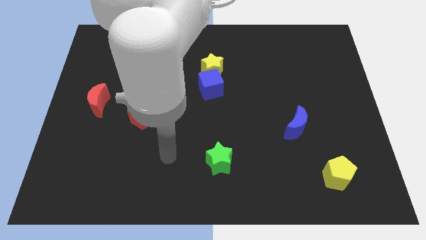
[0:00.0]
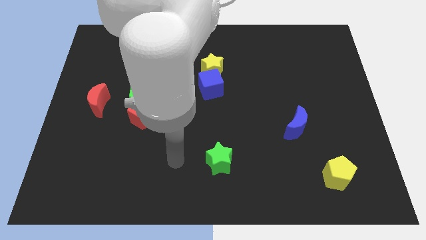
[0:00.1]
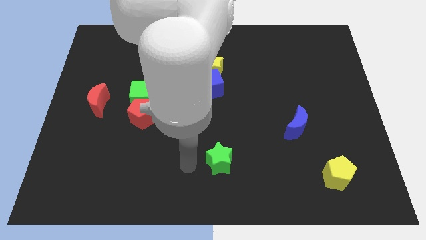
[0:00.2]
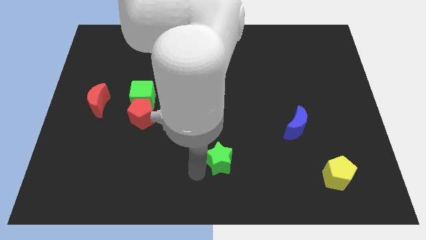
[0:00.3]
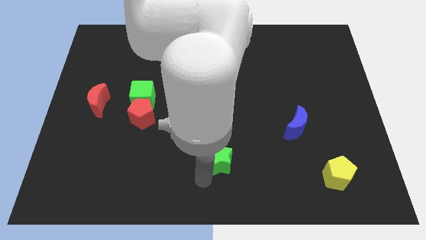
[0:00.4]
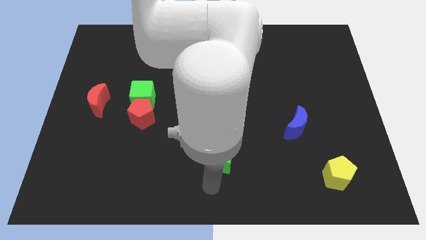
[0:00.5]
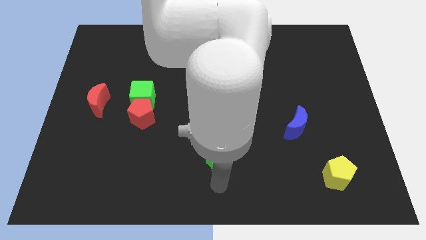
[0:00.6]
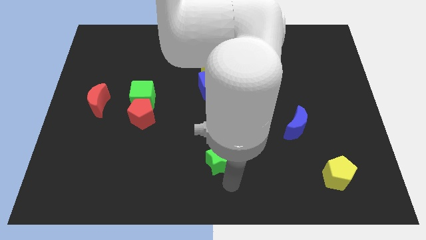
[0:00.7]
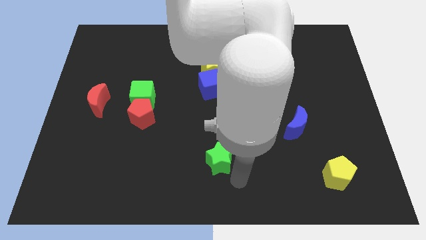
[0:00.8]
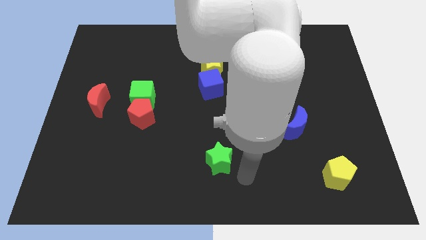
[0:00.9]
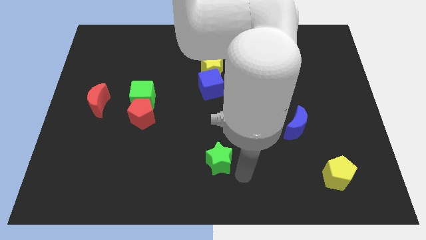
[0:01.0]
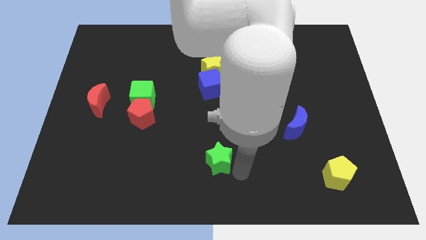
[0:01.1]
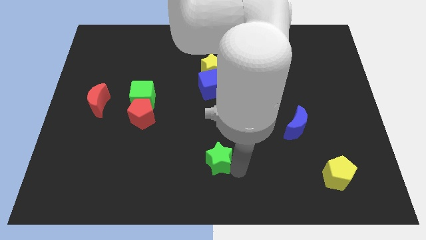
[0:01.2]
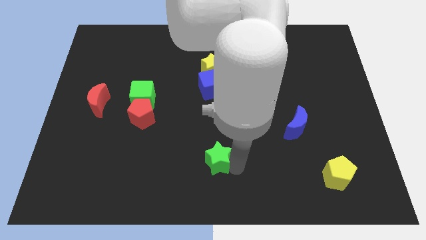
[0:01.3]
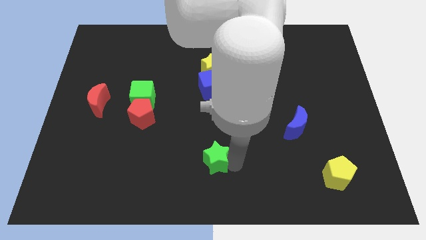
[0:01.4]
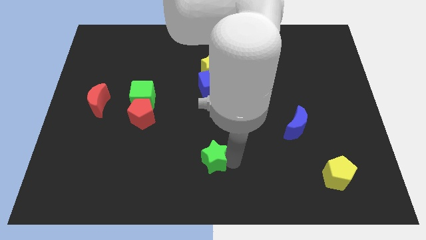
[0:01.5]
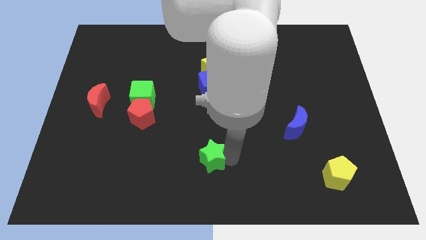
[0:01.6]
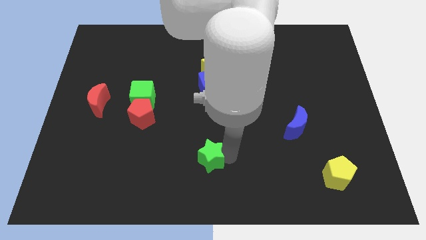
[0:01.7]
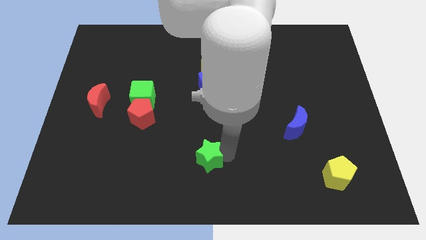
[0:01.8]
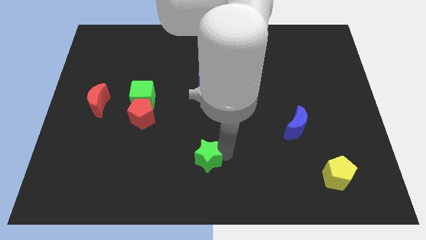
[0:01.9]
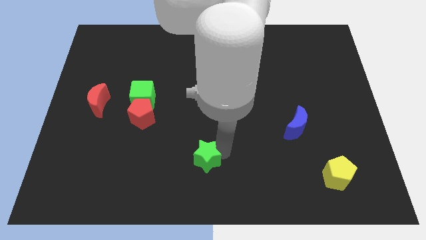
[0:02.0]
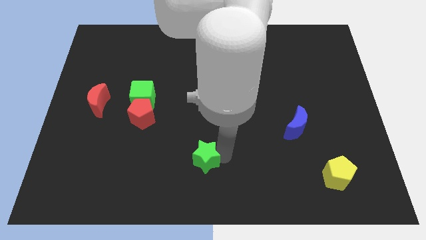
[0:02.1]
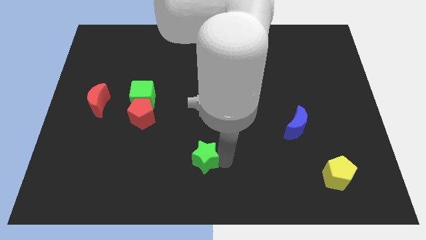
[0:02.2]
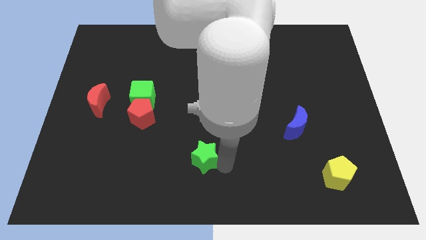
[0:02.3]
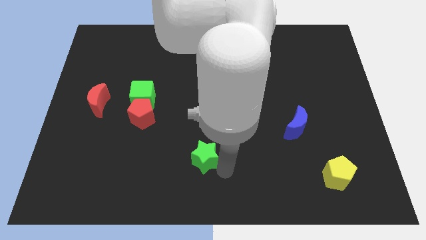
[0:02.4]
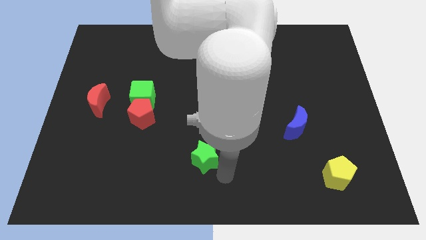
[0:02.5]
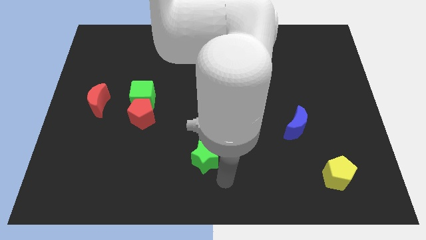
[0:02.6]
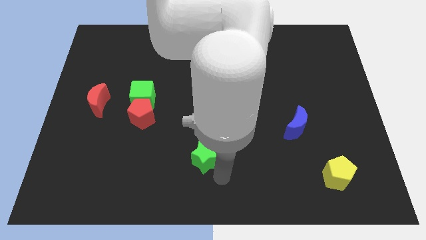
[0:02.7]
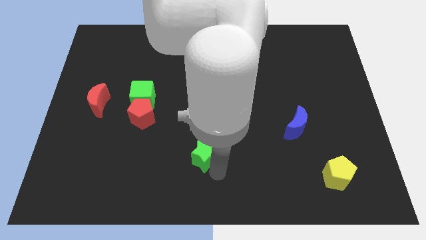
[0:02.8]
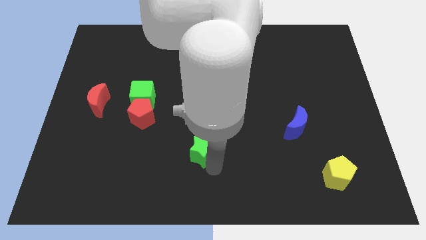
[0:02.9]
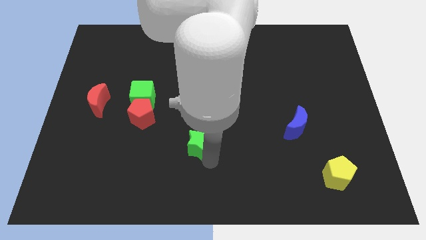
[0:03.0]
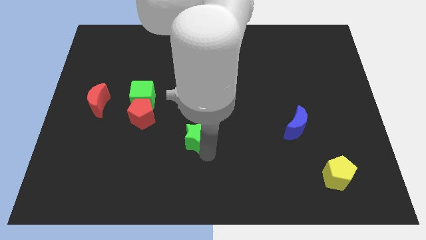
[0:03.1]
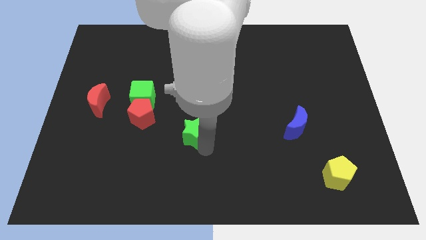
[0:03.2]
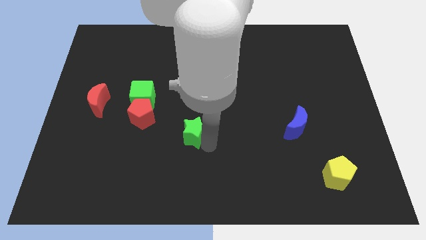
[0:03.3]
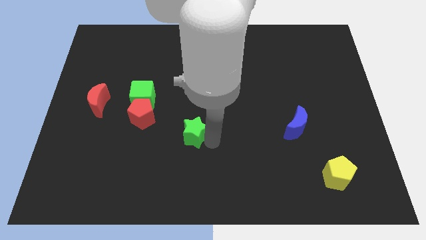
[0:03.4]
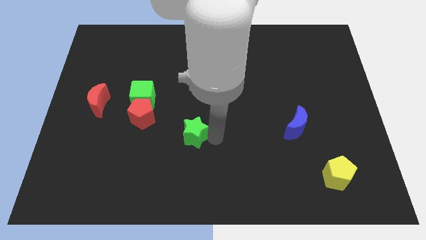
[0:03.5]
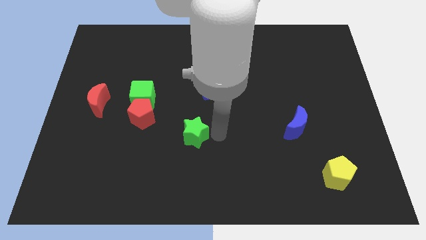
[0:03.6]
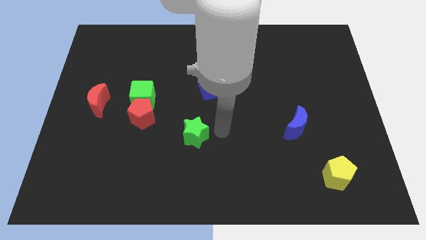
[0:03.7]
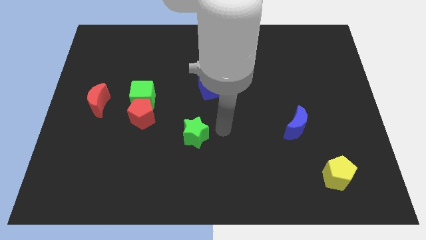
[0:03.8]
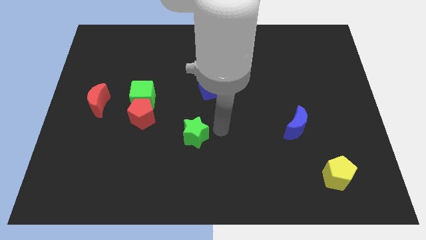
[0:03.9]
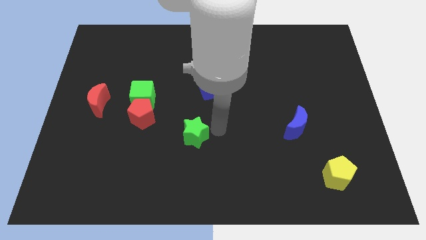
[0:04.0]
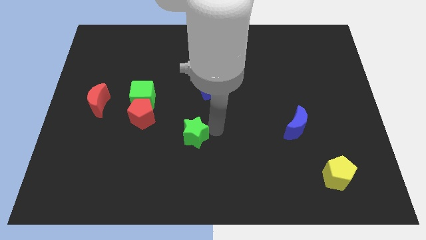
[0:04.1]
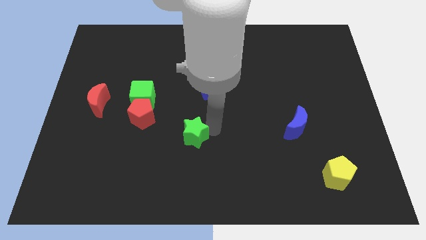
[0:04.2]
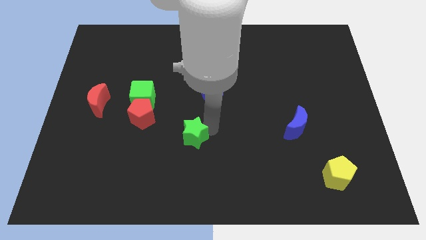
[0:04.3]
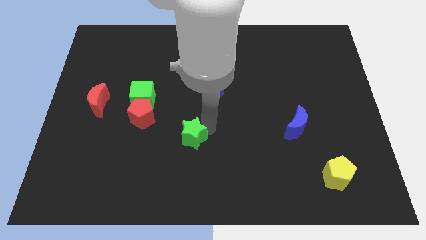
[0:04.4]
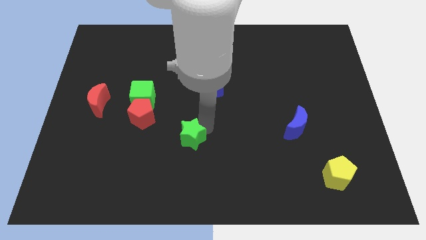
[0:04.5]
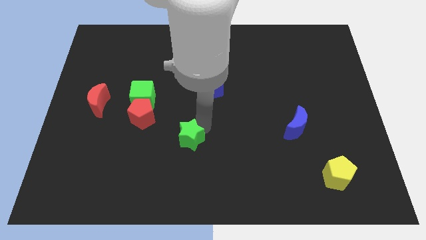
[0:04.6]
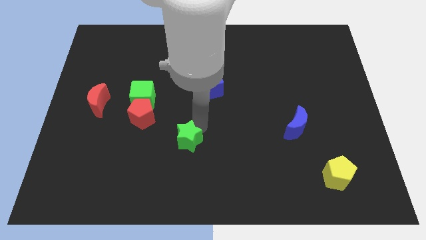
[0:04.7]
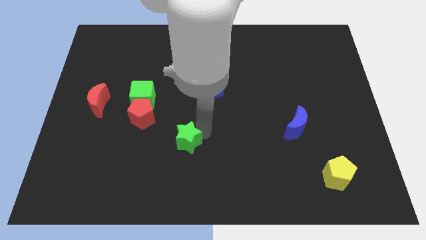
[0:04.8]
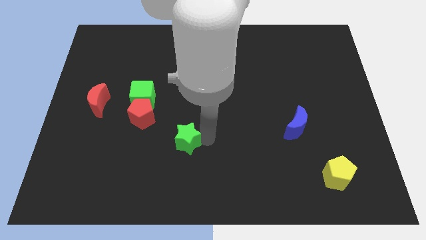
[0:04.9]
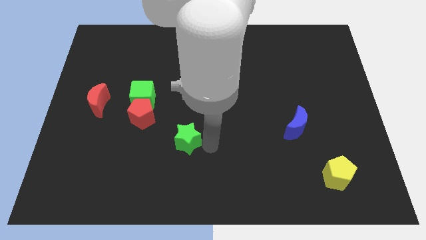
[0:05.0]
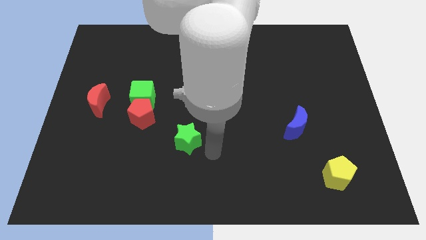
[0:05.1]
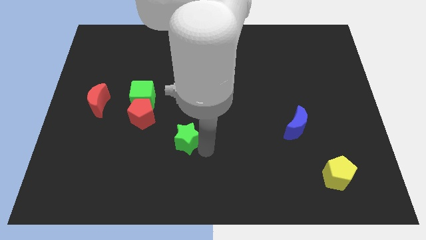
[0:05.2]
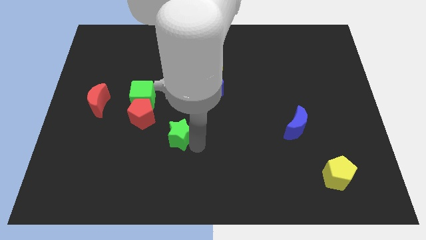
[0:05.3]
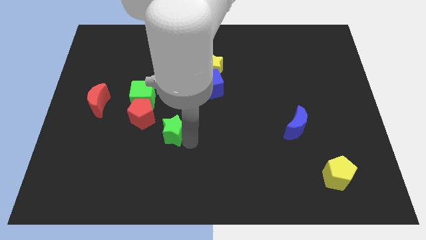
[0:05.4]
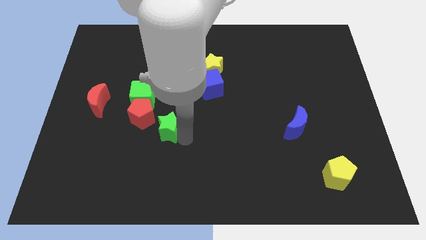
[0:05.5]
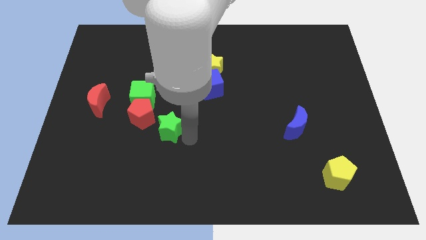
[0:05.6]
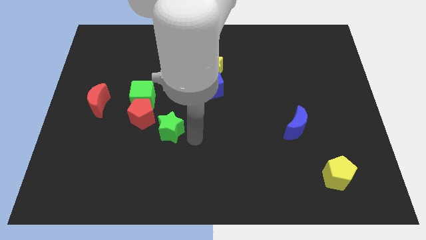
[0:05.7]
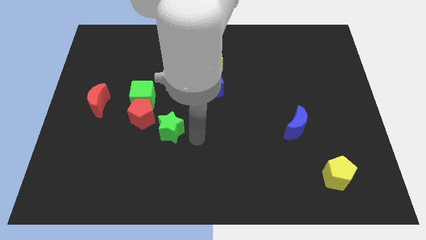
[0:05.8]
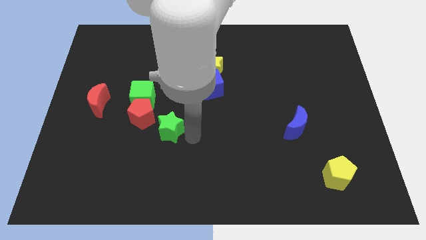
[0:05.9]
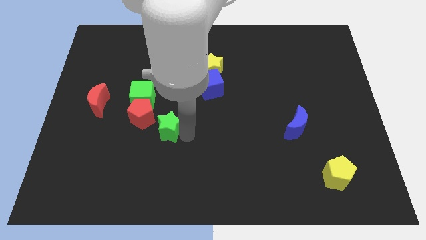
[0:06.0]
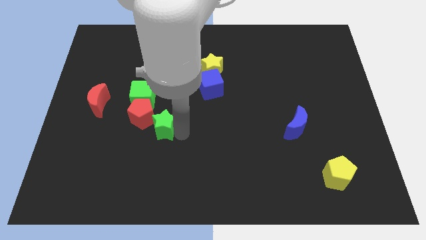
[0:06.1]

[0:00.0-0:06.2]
push the green star to the red pentagon

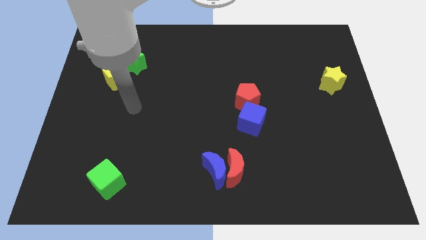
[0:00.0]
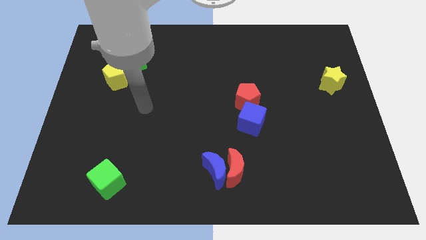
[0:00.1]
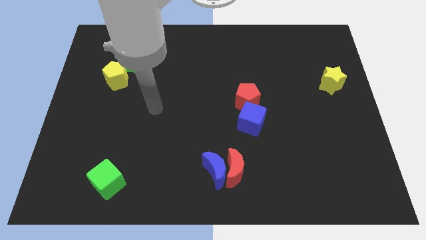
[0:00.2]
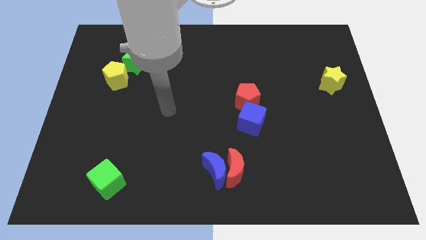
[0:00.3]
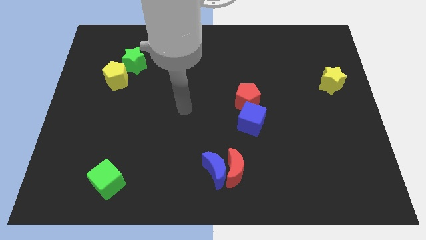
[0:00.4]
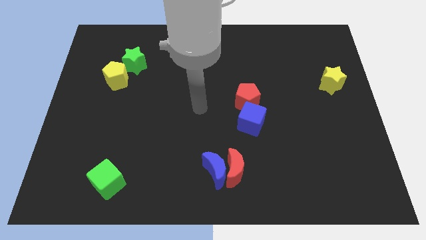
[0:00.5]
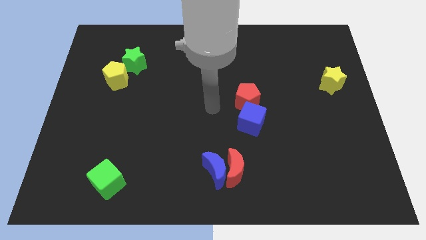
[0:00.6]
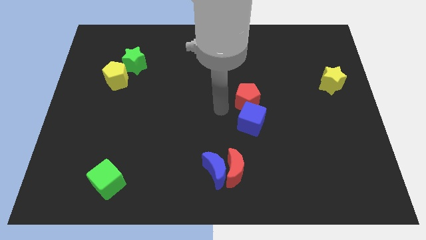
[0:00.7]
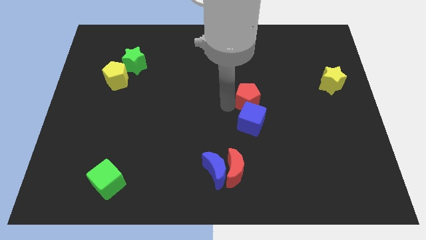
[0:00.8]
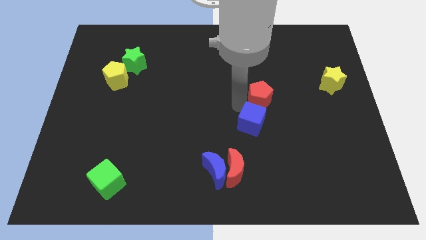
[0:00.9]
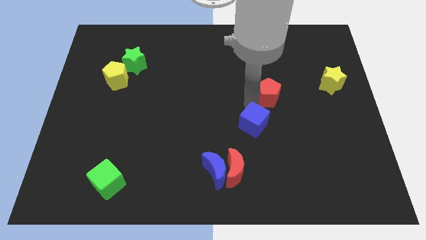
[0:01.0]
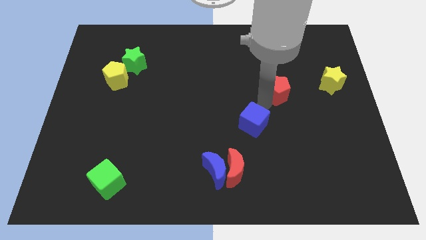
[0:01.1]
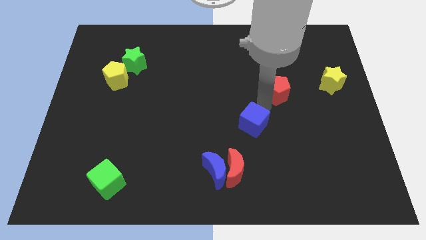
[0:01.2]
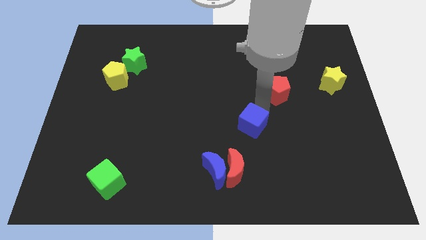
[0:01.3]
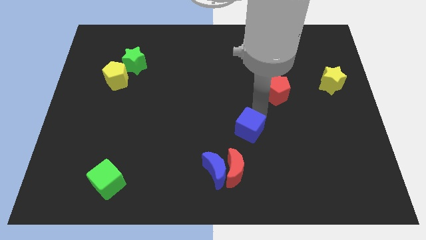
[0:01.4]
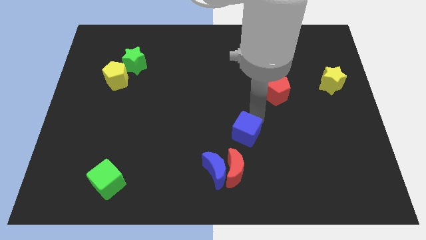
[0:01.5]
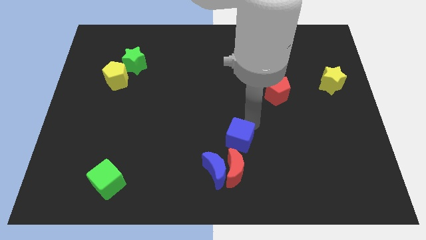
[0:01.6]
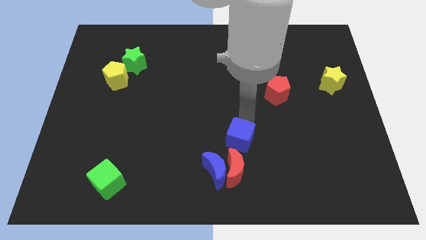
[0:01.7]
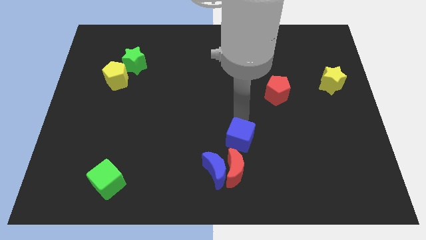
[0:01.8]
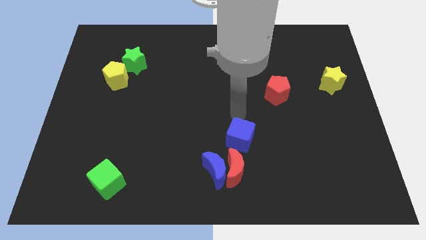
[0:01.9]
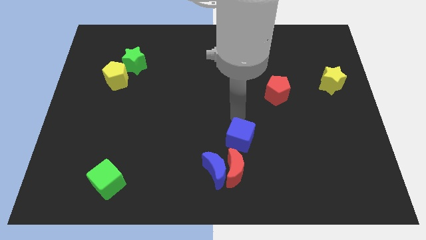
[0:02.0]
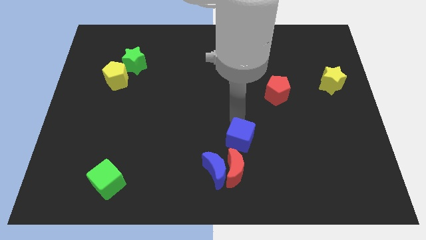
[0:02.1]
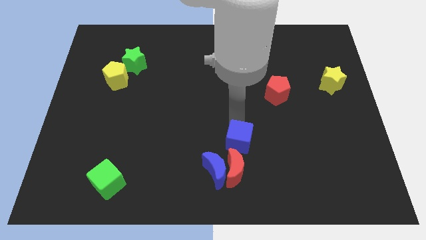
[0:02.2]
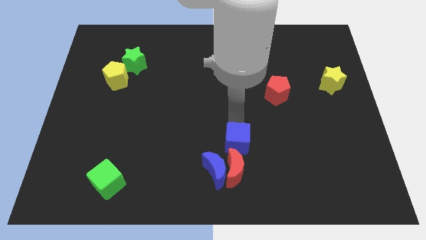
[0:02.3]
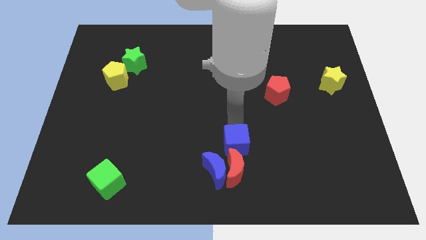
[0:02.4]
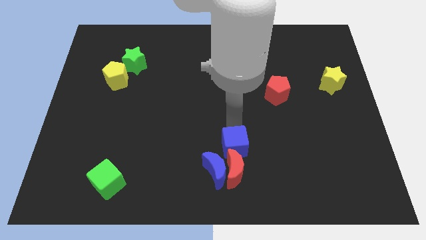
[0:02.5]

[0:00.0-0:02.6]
move the blue cube close to the red moon
